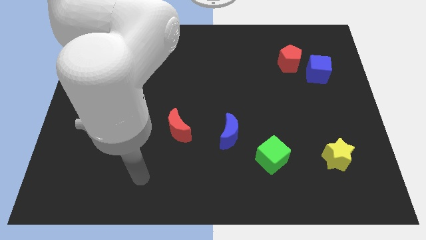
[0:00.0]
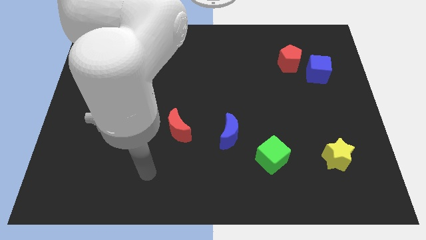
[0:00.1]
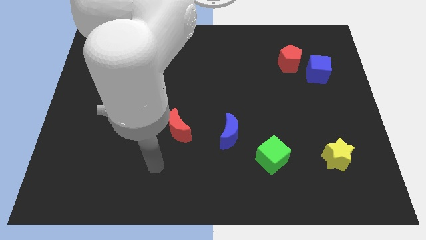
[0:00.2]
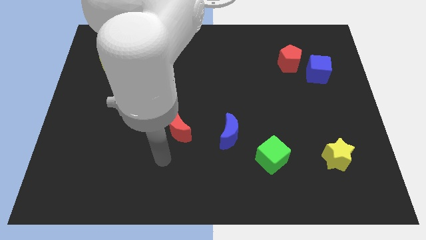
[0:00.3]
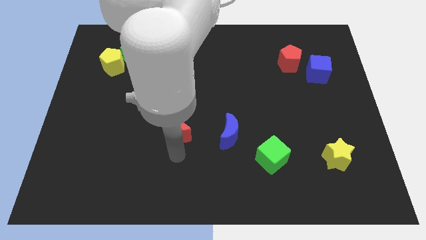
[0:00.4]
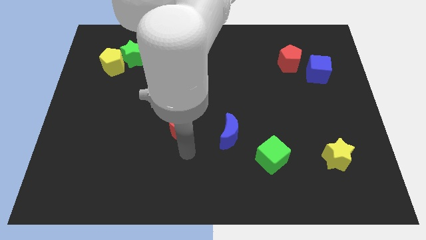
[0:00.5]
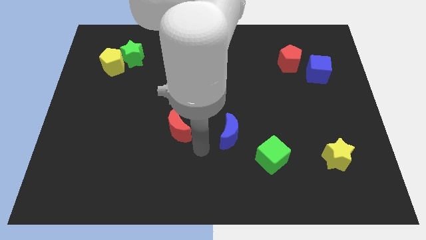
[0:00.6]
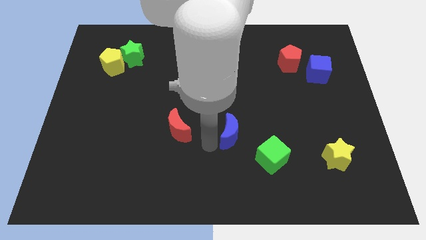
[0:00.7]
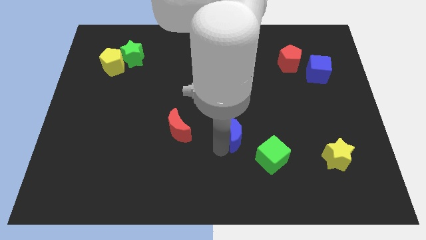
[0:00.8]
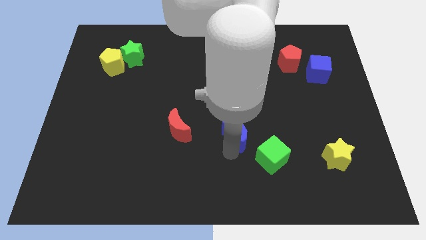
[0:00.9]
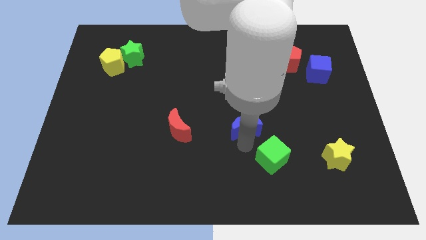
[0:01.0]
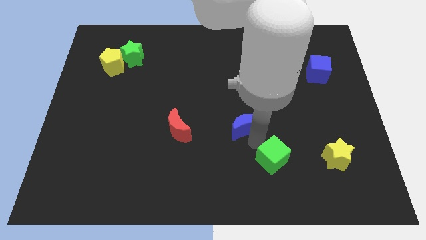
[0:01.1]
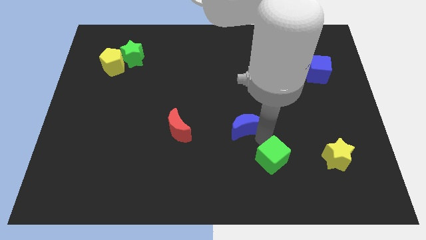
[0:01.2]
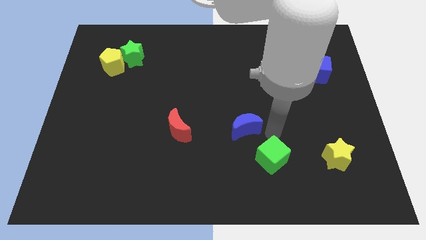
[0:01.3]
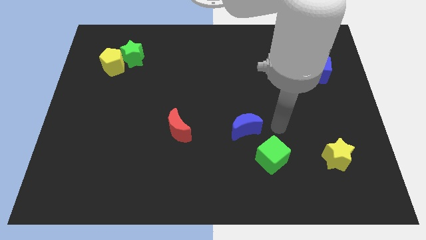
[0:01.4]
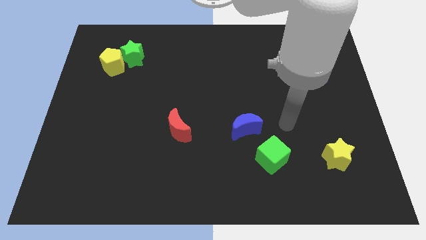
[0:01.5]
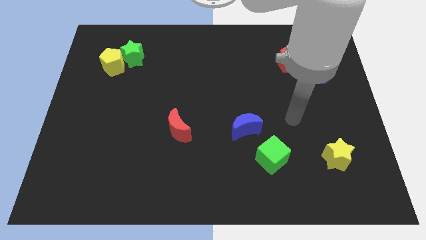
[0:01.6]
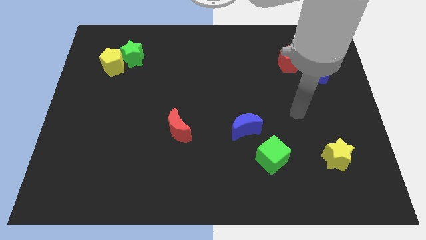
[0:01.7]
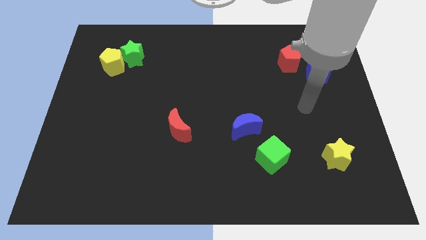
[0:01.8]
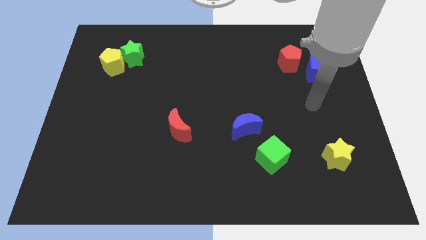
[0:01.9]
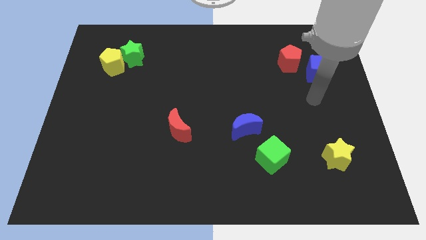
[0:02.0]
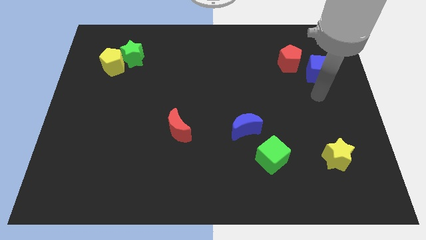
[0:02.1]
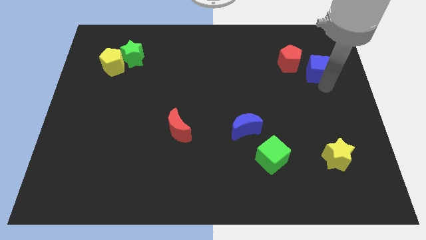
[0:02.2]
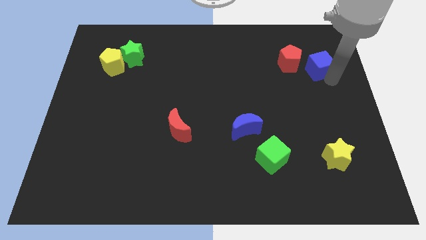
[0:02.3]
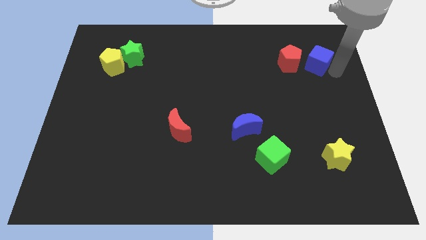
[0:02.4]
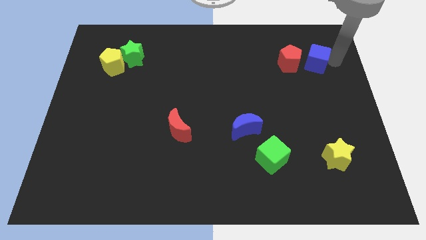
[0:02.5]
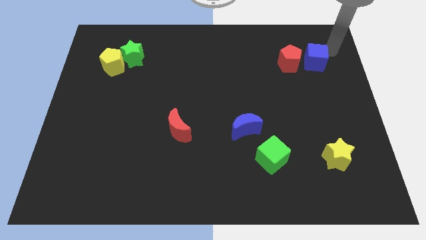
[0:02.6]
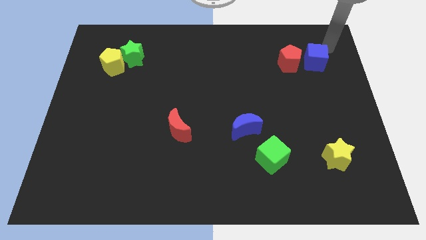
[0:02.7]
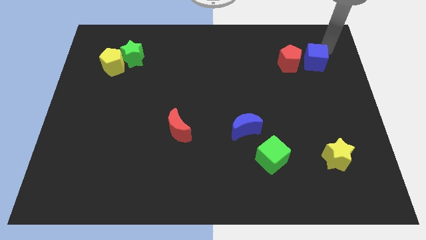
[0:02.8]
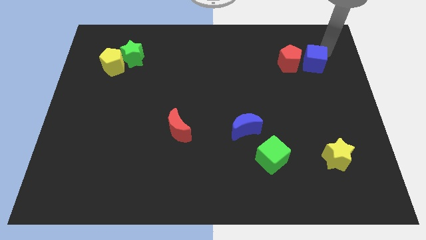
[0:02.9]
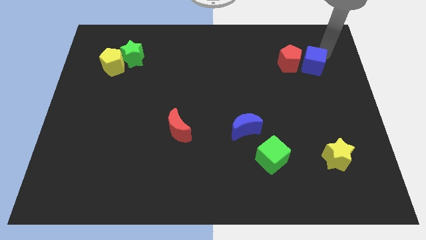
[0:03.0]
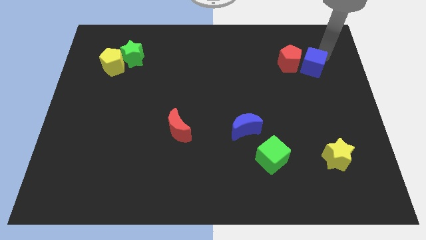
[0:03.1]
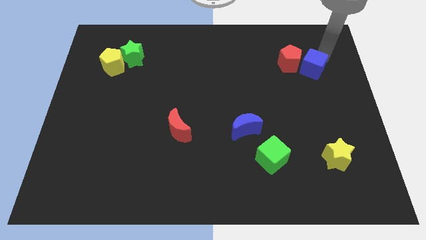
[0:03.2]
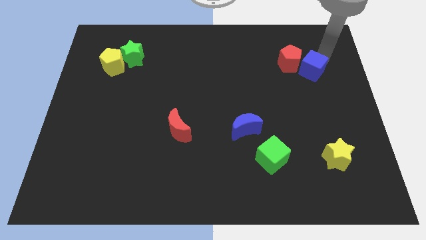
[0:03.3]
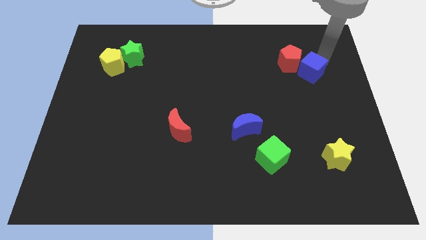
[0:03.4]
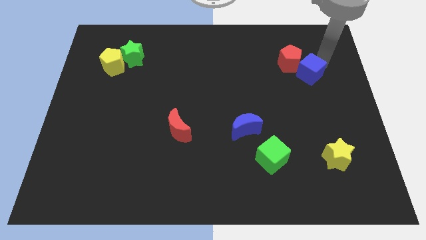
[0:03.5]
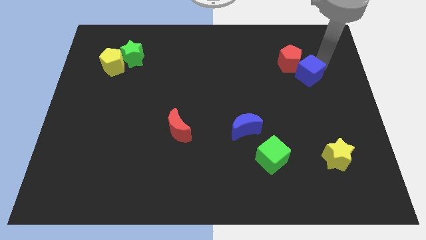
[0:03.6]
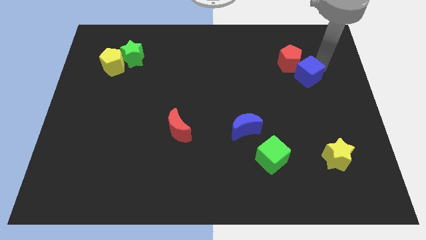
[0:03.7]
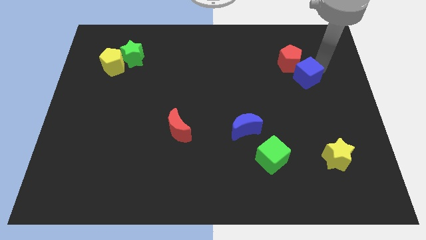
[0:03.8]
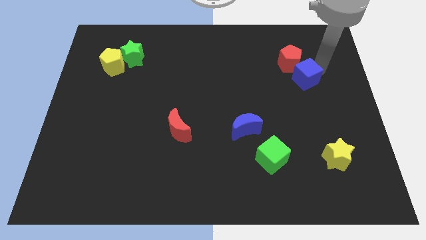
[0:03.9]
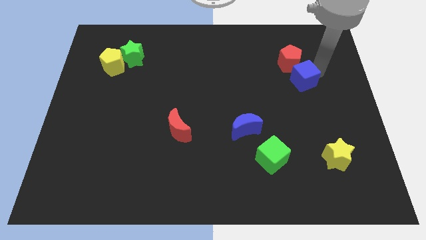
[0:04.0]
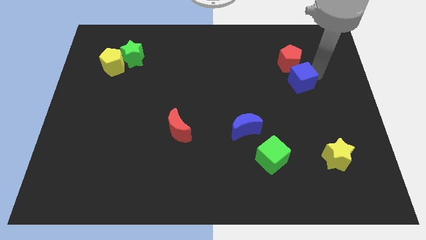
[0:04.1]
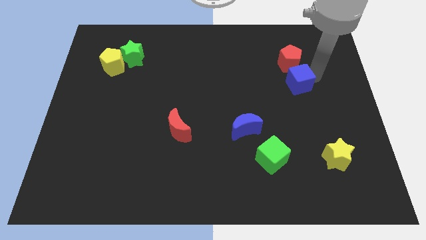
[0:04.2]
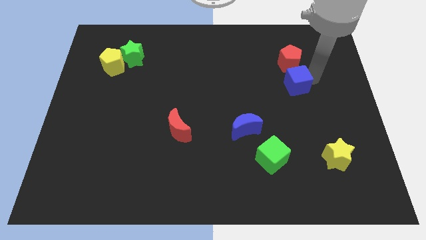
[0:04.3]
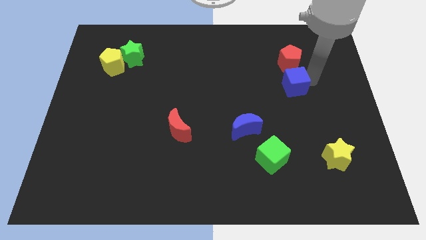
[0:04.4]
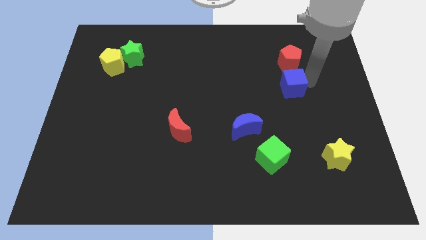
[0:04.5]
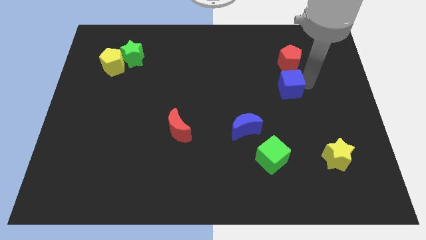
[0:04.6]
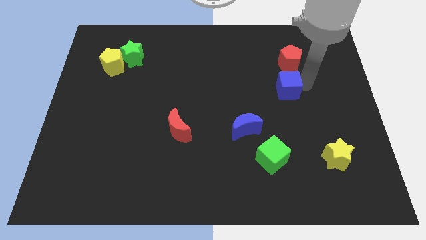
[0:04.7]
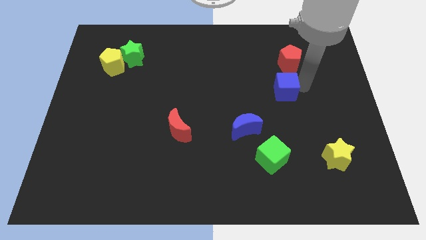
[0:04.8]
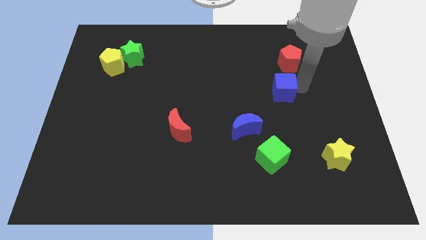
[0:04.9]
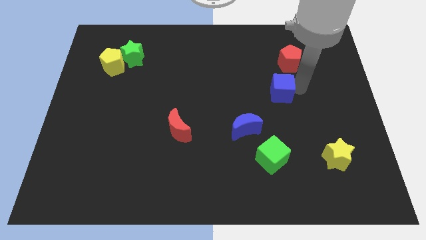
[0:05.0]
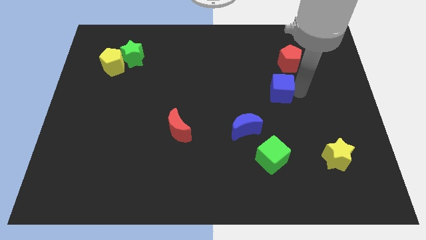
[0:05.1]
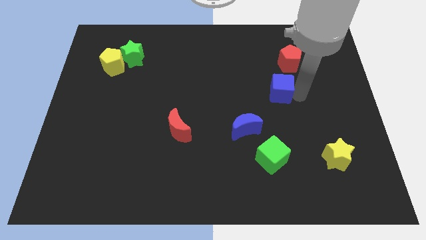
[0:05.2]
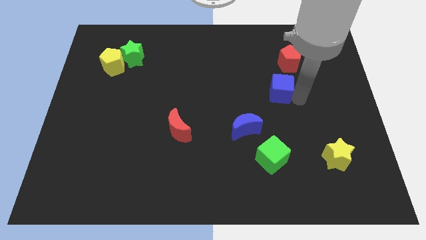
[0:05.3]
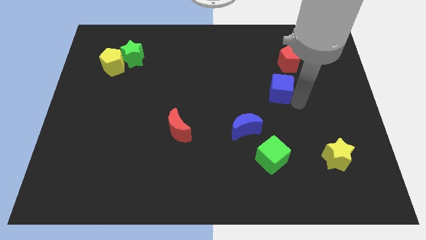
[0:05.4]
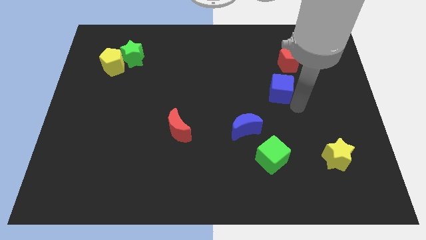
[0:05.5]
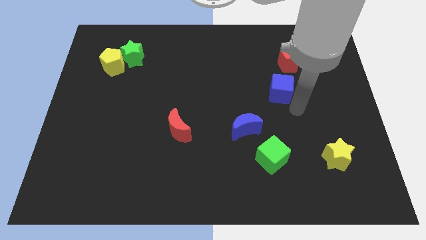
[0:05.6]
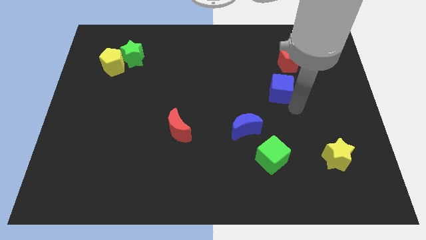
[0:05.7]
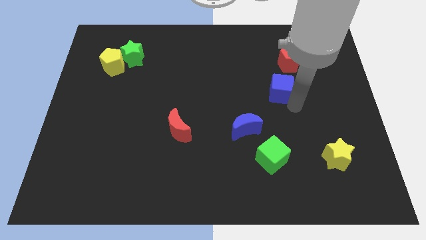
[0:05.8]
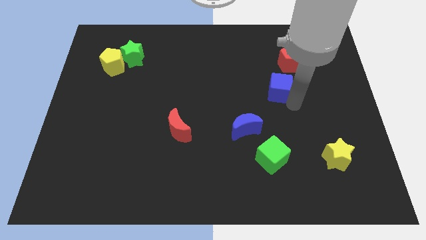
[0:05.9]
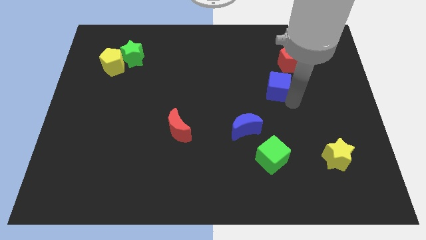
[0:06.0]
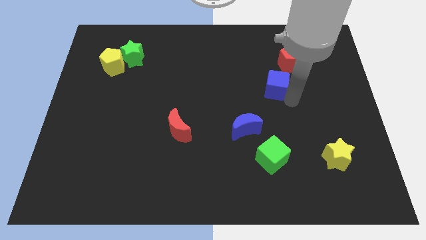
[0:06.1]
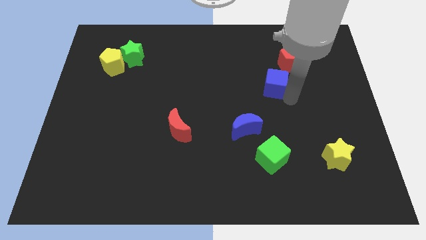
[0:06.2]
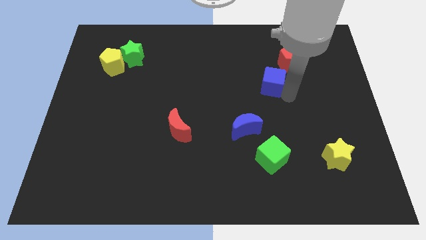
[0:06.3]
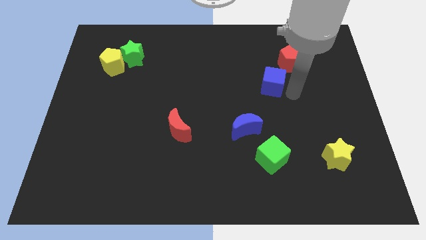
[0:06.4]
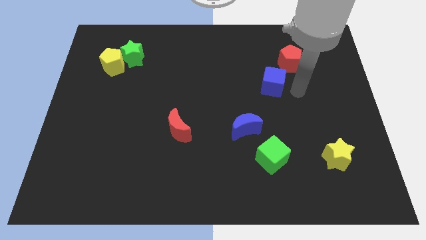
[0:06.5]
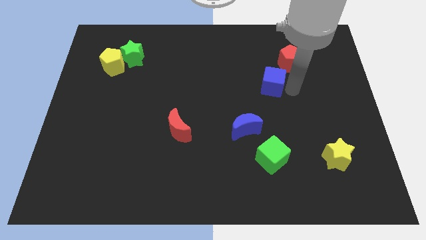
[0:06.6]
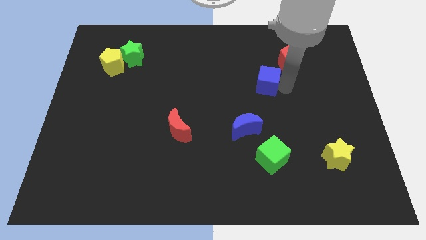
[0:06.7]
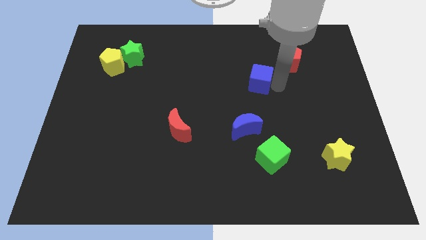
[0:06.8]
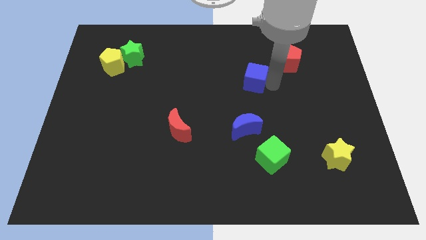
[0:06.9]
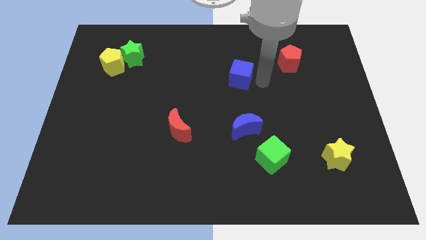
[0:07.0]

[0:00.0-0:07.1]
push the blue cube to the left

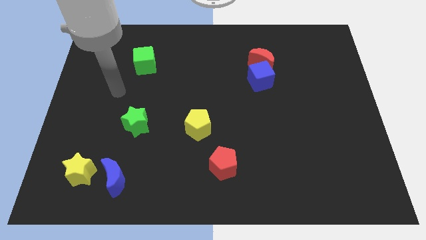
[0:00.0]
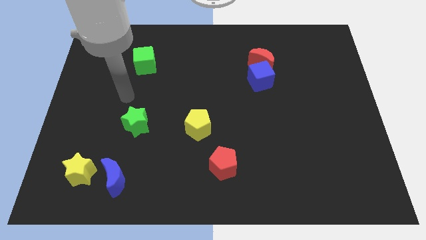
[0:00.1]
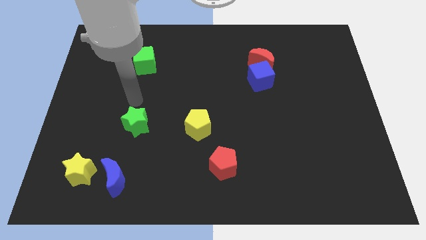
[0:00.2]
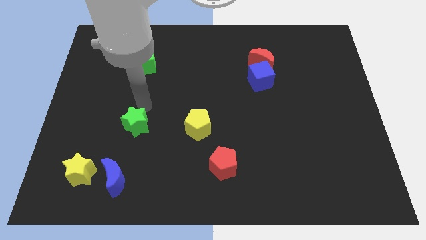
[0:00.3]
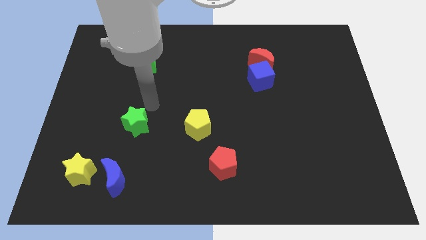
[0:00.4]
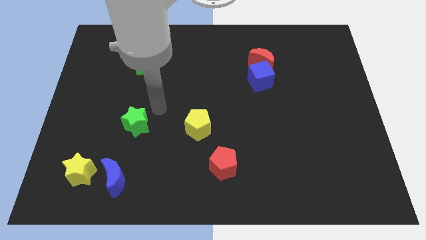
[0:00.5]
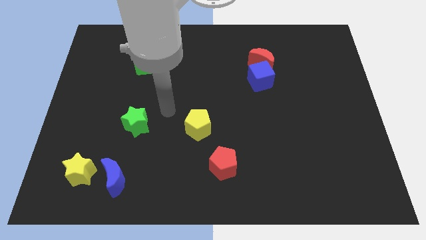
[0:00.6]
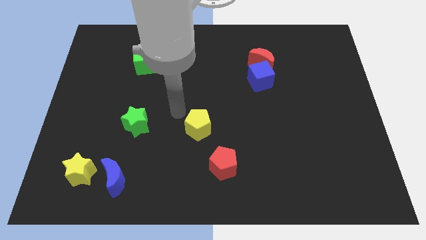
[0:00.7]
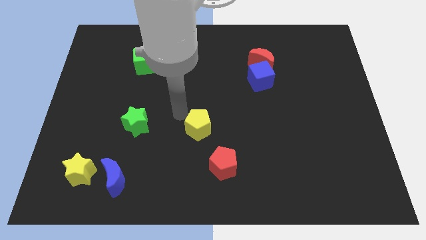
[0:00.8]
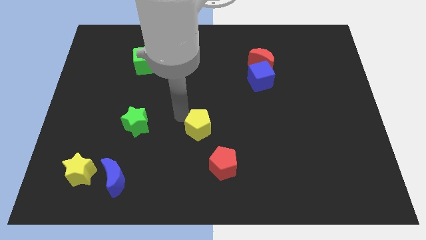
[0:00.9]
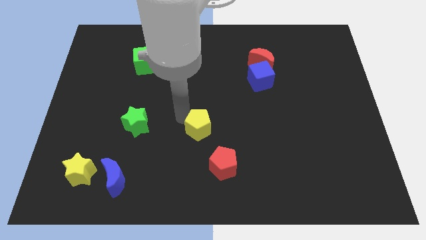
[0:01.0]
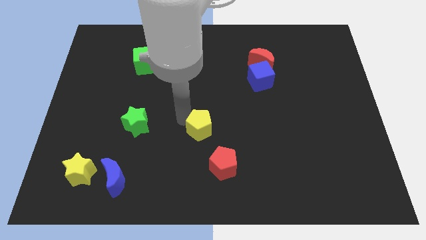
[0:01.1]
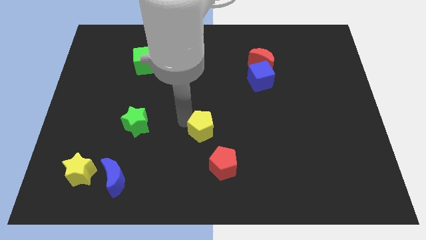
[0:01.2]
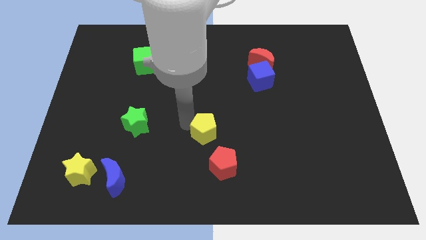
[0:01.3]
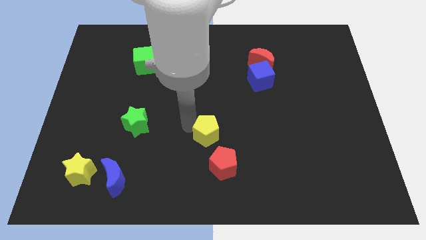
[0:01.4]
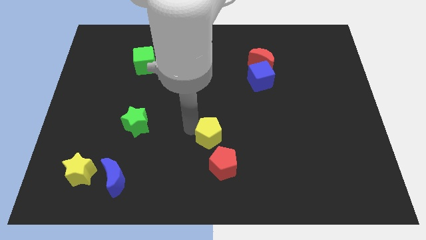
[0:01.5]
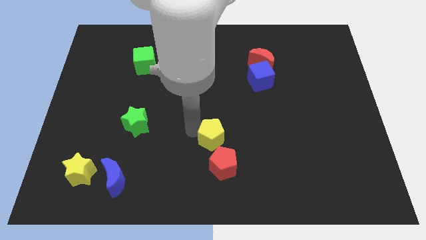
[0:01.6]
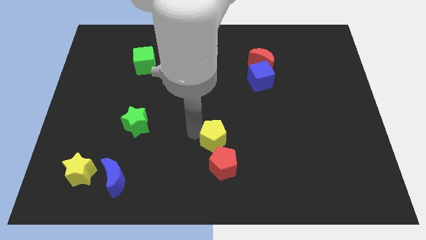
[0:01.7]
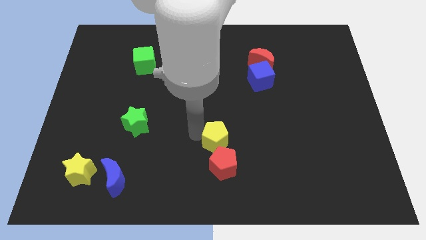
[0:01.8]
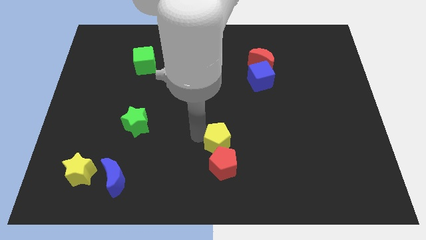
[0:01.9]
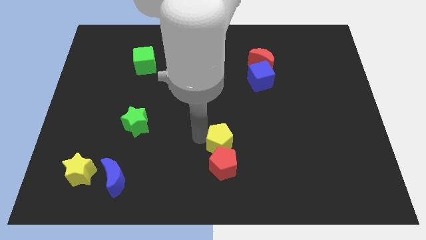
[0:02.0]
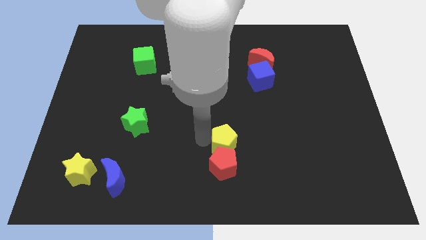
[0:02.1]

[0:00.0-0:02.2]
push the yellow pentagon down and to the right somewhat
